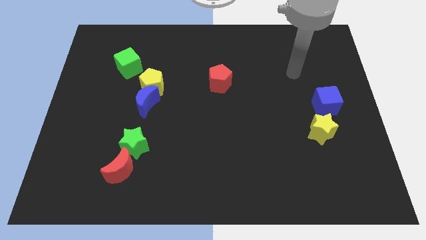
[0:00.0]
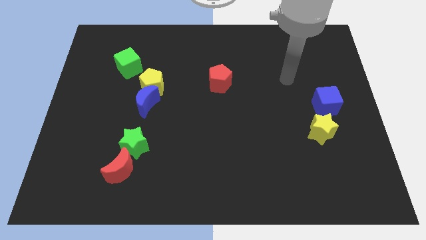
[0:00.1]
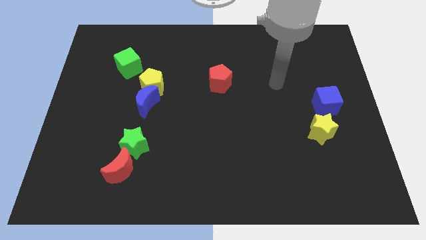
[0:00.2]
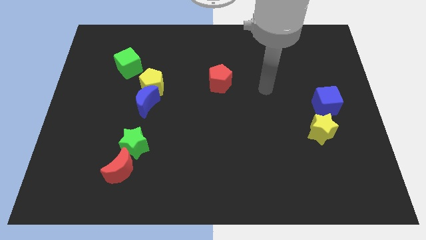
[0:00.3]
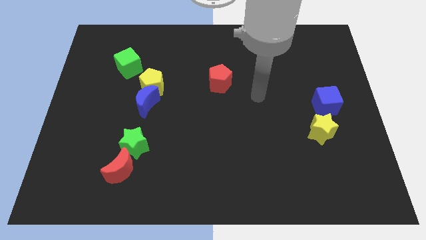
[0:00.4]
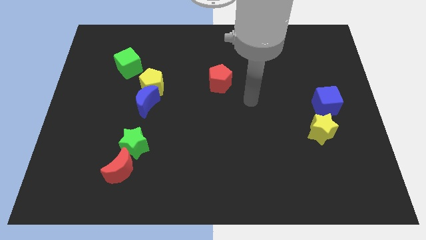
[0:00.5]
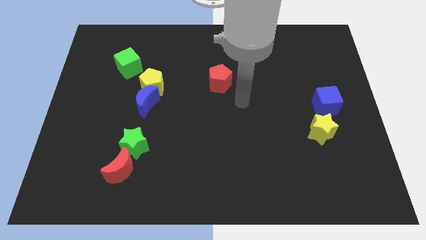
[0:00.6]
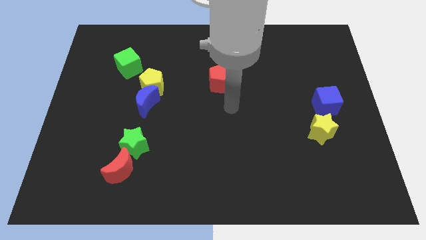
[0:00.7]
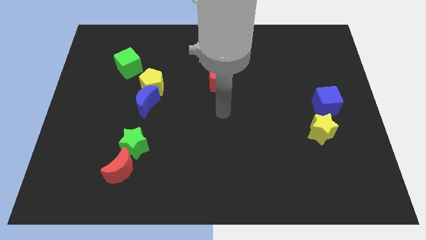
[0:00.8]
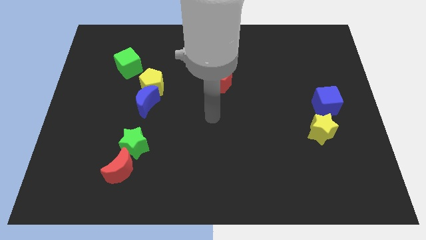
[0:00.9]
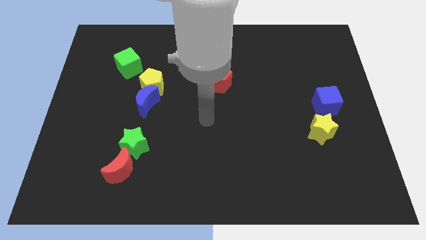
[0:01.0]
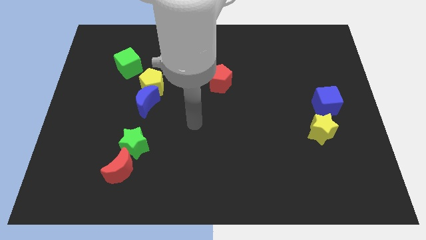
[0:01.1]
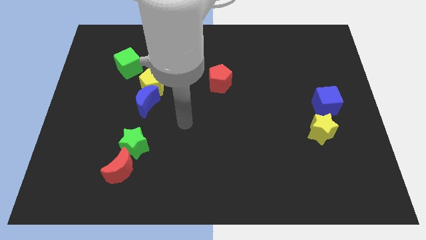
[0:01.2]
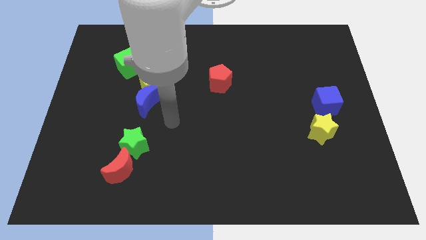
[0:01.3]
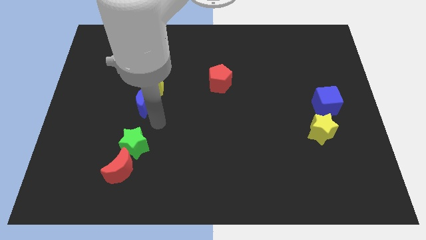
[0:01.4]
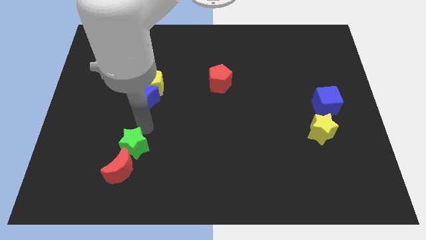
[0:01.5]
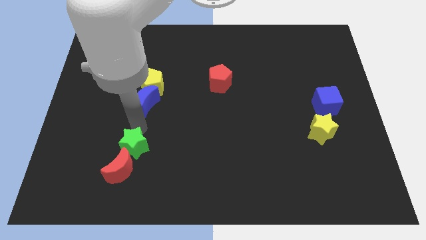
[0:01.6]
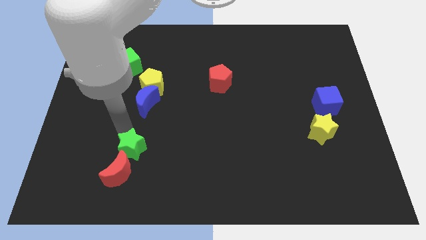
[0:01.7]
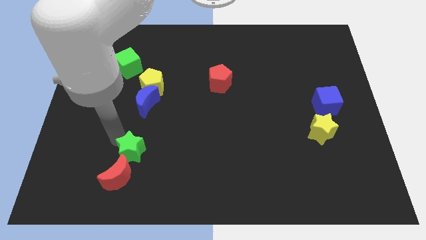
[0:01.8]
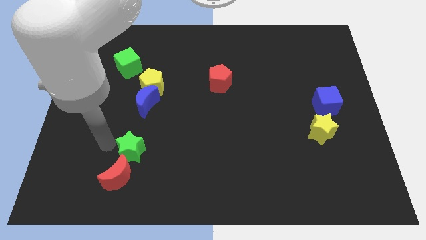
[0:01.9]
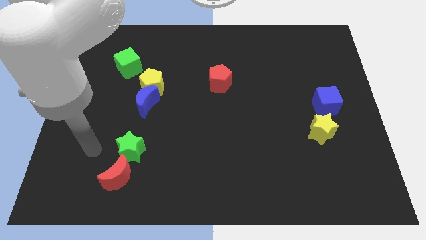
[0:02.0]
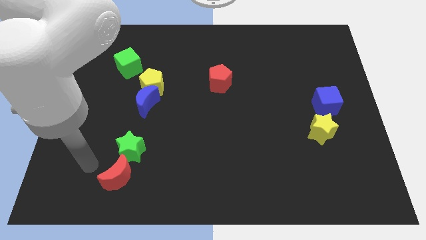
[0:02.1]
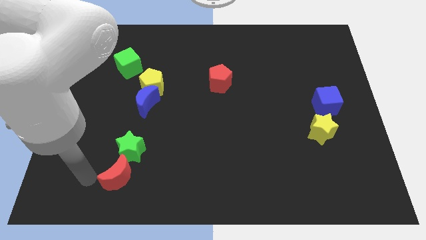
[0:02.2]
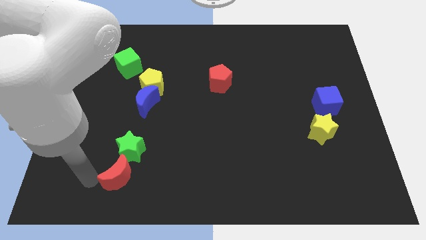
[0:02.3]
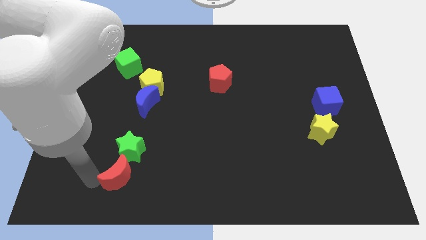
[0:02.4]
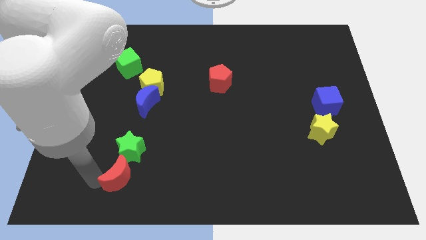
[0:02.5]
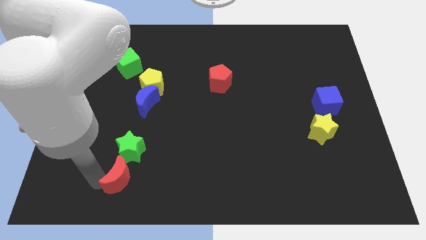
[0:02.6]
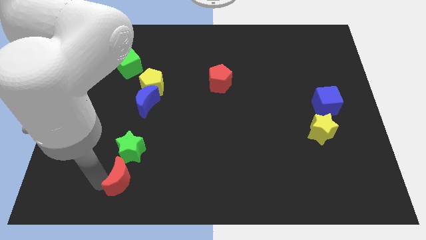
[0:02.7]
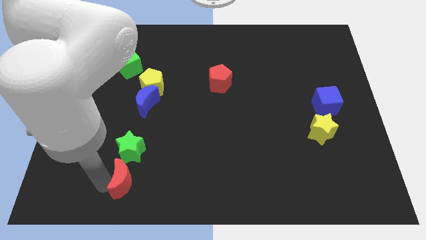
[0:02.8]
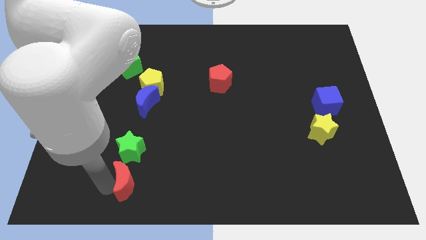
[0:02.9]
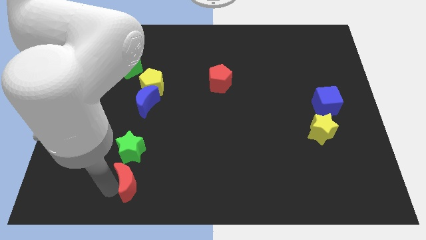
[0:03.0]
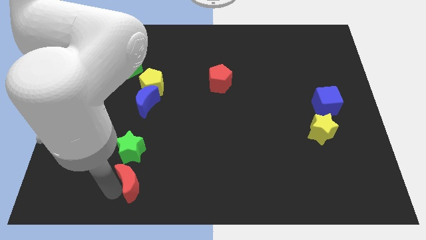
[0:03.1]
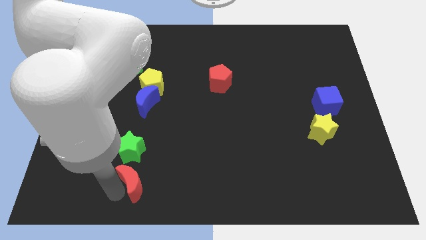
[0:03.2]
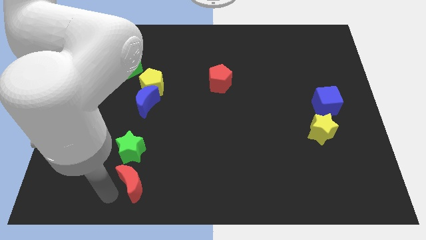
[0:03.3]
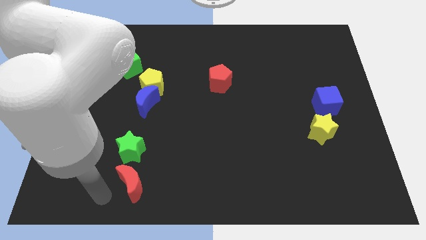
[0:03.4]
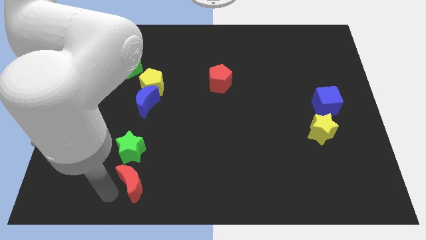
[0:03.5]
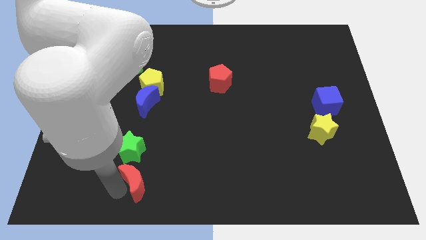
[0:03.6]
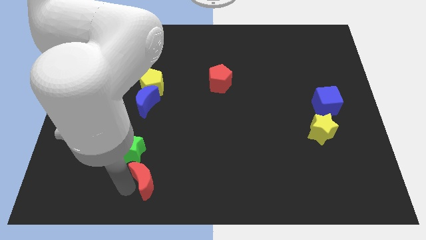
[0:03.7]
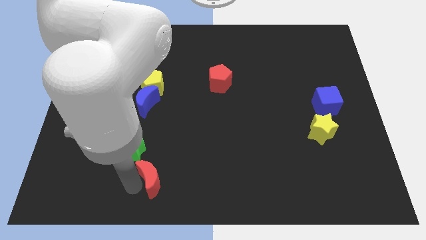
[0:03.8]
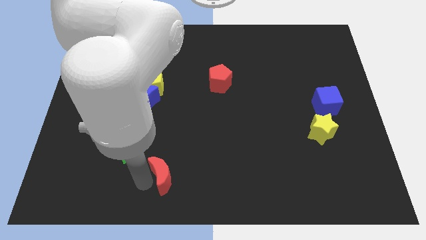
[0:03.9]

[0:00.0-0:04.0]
move the red moon right a bit

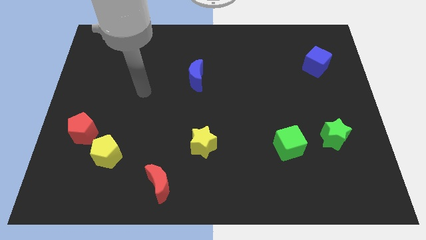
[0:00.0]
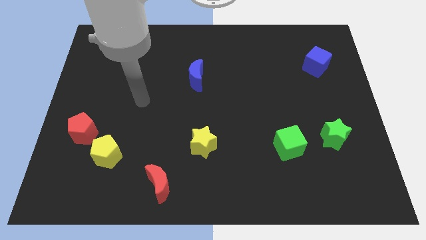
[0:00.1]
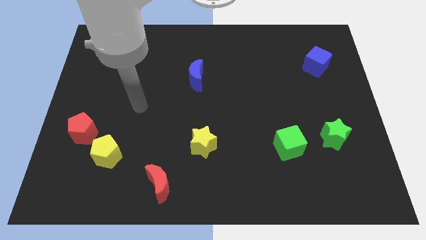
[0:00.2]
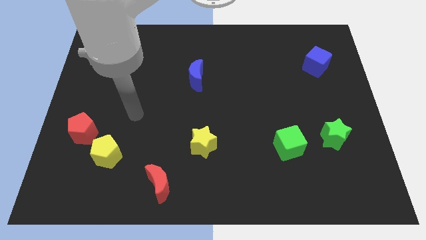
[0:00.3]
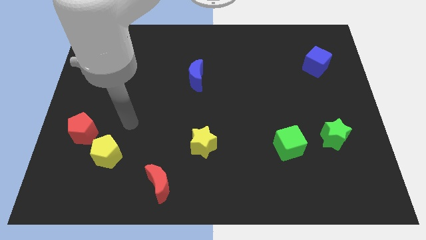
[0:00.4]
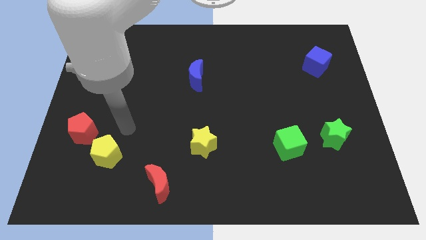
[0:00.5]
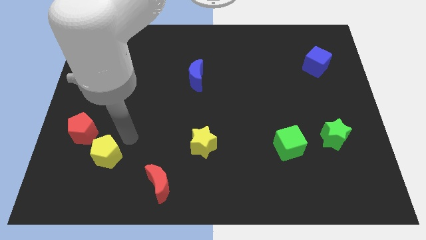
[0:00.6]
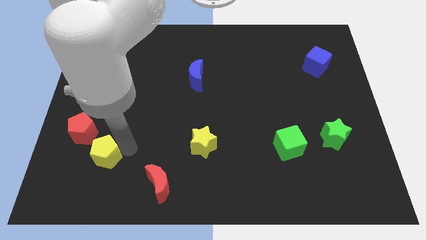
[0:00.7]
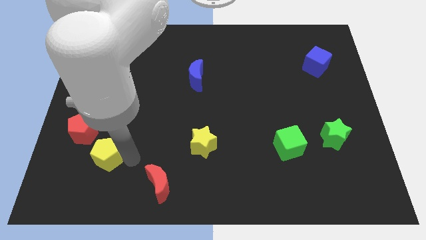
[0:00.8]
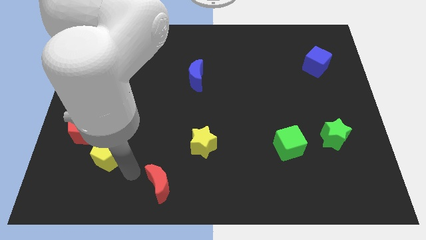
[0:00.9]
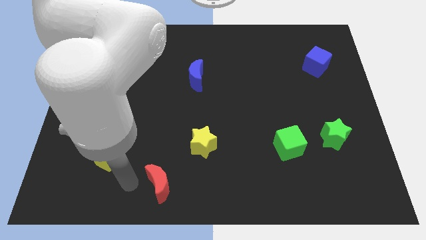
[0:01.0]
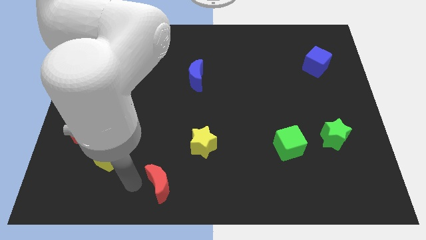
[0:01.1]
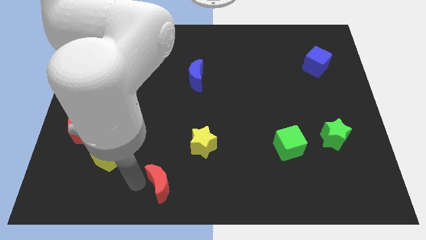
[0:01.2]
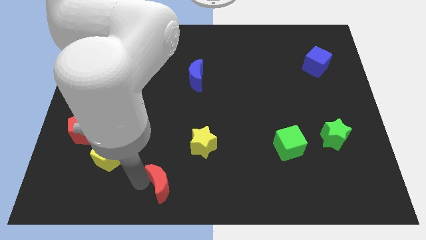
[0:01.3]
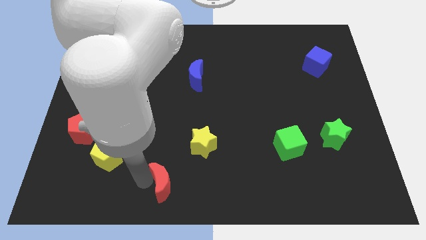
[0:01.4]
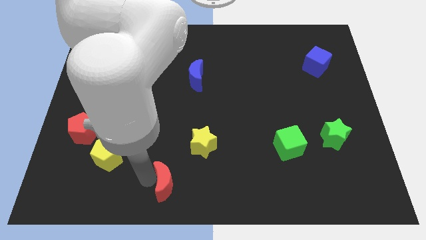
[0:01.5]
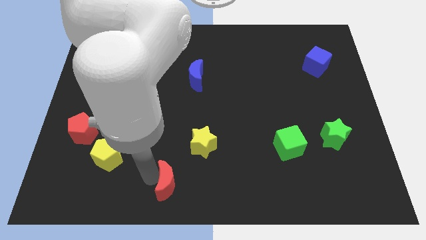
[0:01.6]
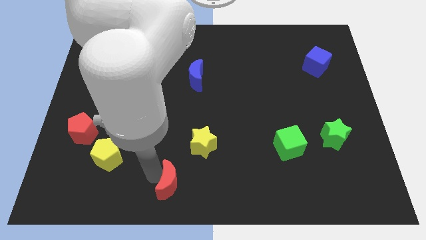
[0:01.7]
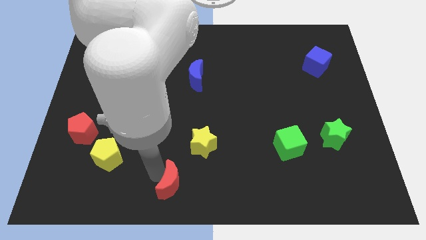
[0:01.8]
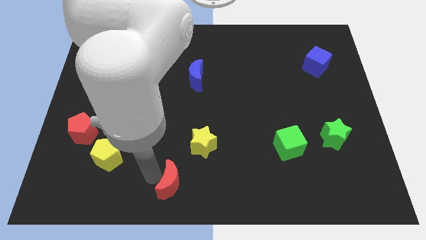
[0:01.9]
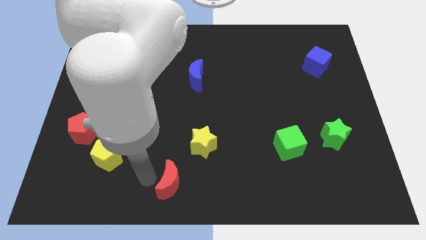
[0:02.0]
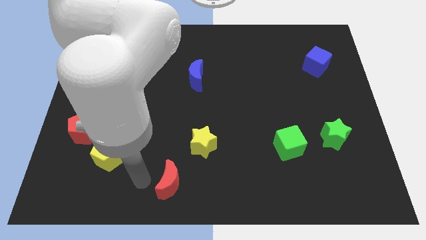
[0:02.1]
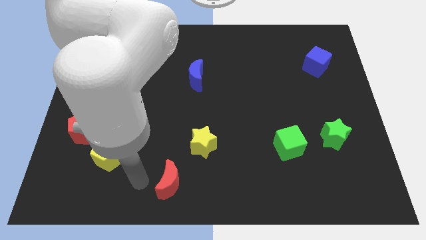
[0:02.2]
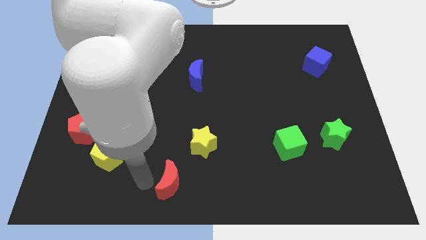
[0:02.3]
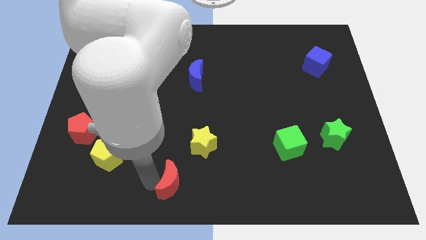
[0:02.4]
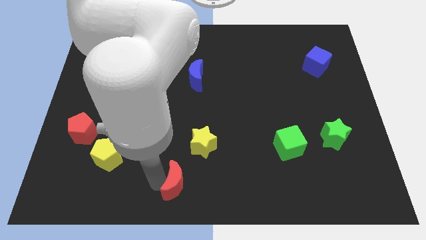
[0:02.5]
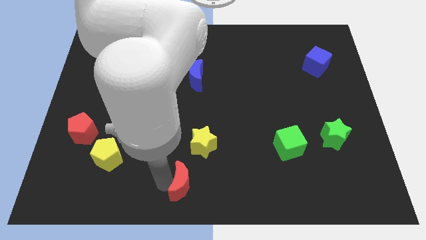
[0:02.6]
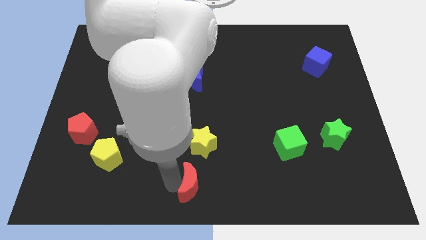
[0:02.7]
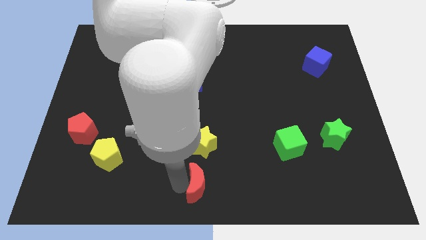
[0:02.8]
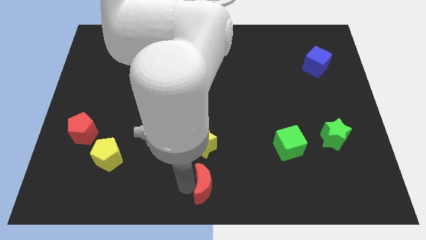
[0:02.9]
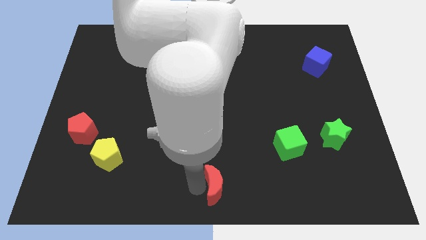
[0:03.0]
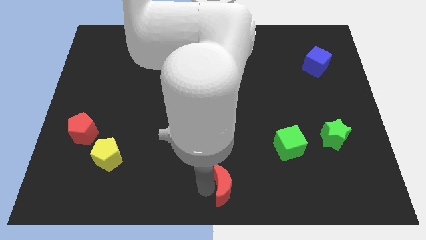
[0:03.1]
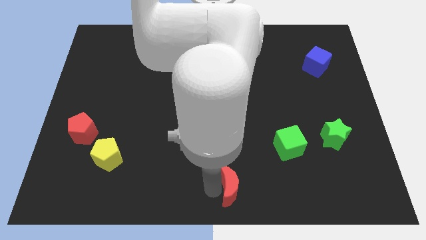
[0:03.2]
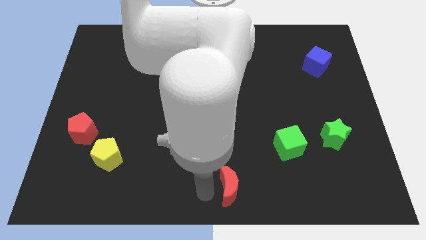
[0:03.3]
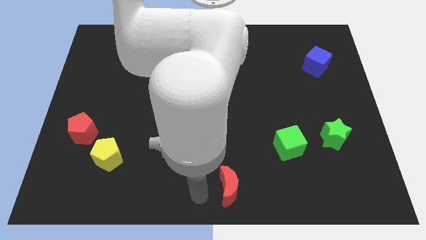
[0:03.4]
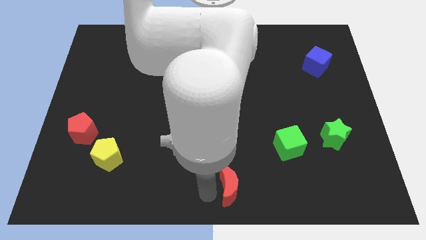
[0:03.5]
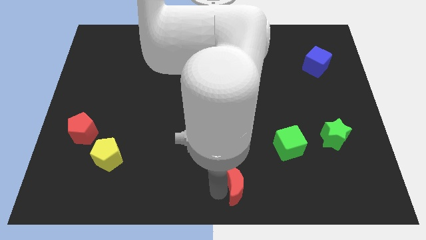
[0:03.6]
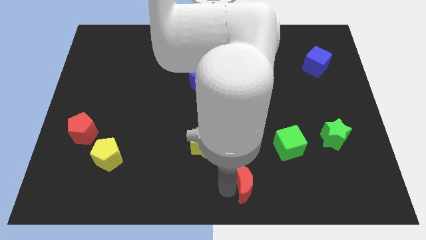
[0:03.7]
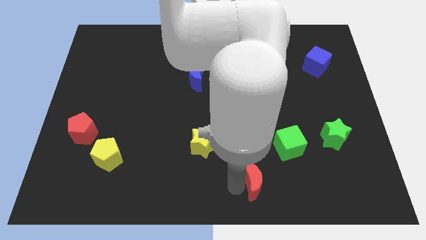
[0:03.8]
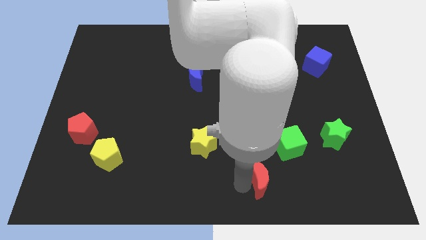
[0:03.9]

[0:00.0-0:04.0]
push the red moon right
